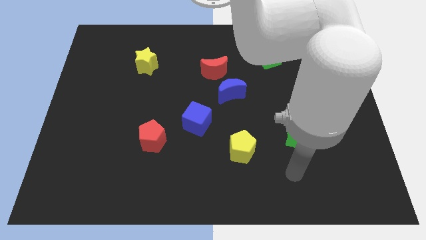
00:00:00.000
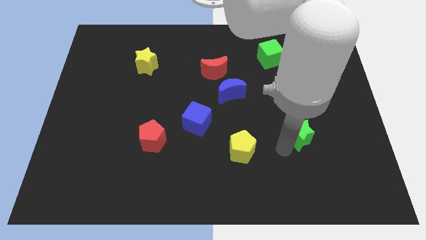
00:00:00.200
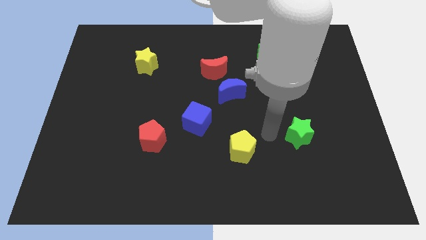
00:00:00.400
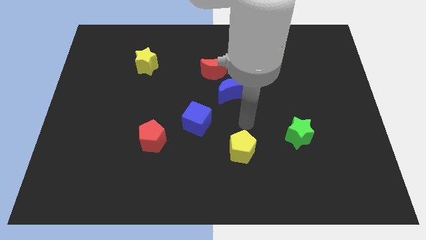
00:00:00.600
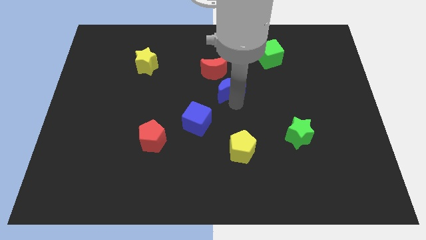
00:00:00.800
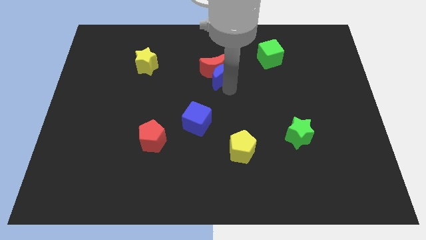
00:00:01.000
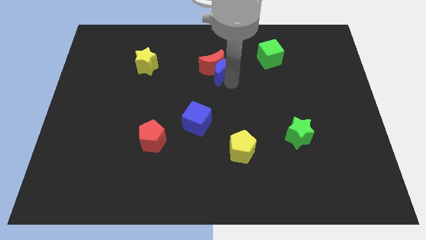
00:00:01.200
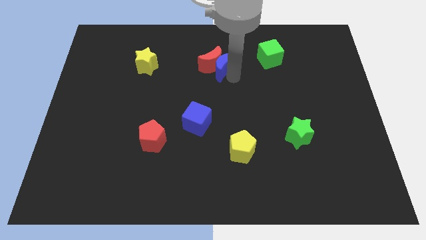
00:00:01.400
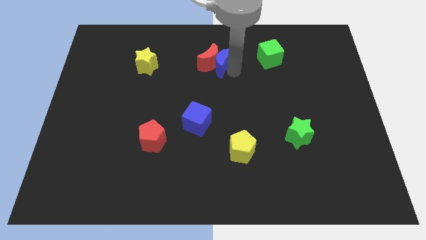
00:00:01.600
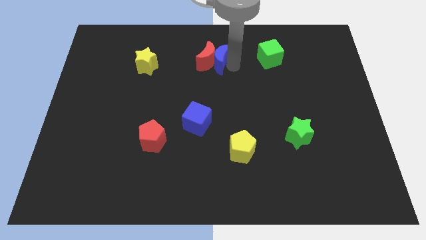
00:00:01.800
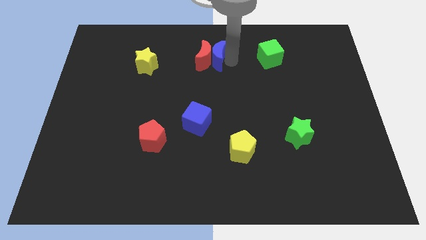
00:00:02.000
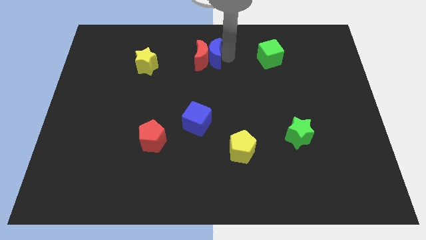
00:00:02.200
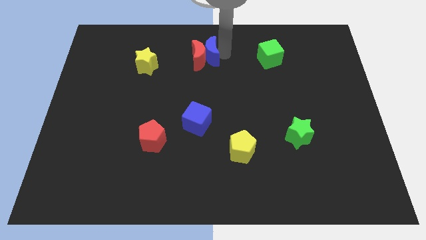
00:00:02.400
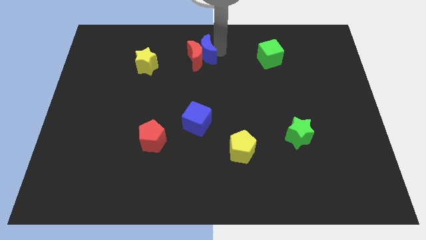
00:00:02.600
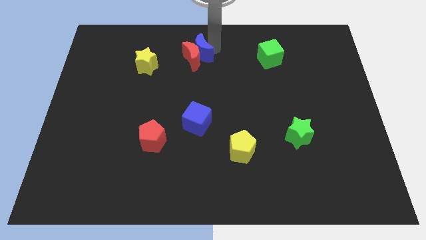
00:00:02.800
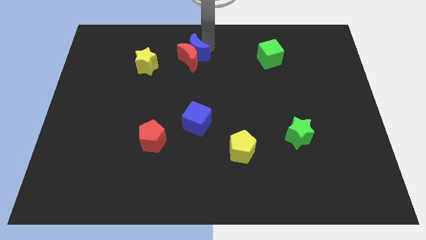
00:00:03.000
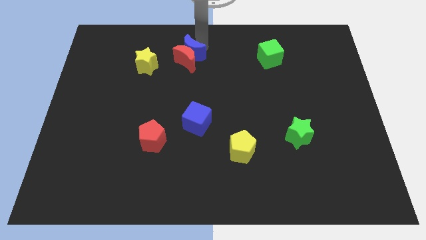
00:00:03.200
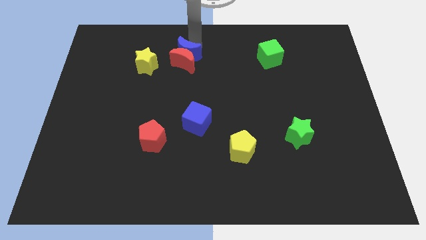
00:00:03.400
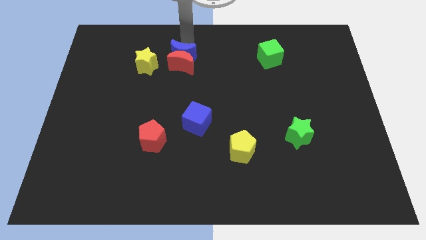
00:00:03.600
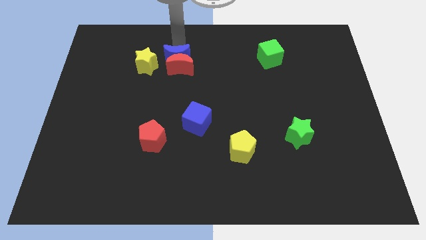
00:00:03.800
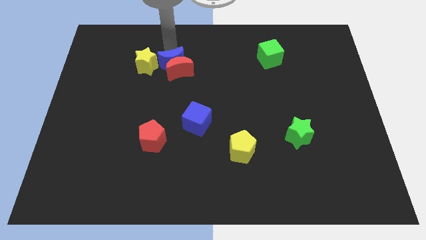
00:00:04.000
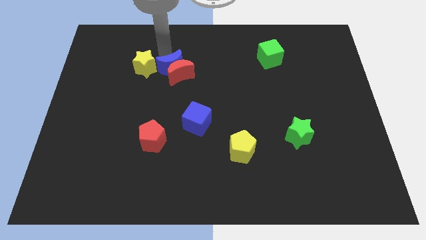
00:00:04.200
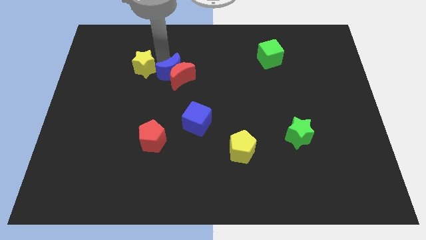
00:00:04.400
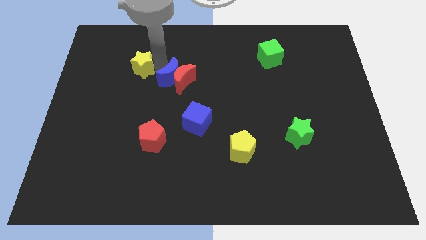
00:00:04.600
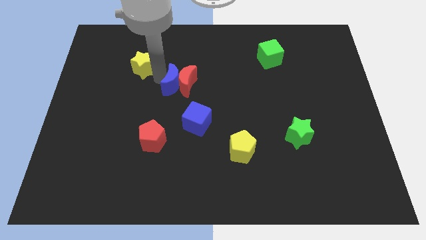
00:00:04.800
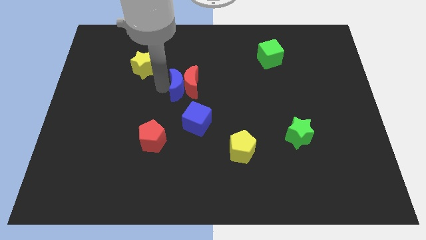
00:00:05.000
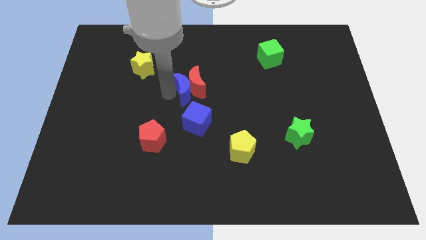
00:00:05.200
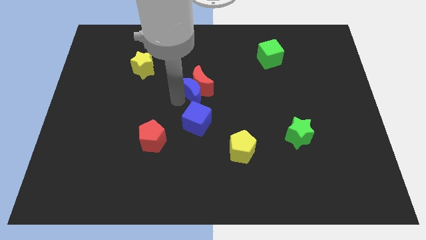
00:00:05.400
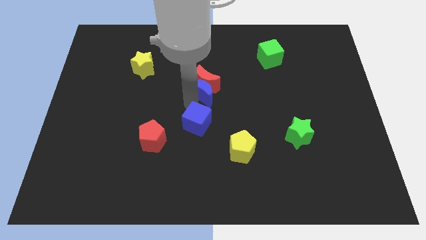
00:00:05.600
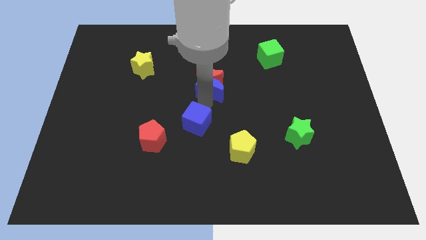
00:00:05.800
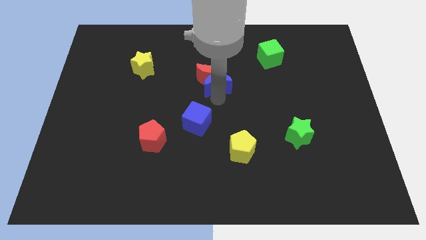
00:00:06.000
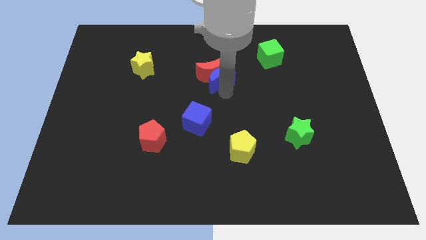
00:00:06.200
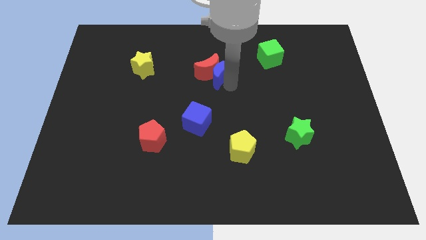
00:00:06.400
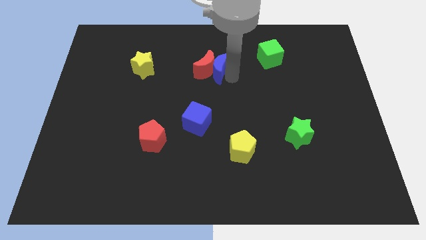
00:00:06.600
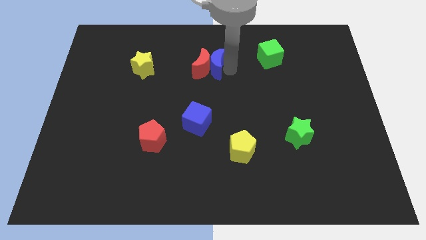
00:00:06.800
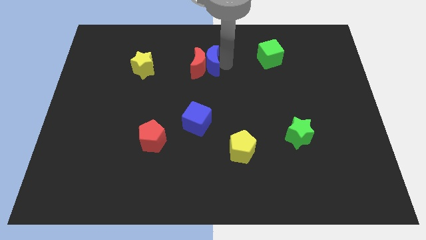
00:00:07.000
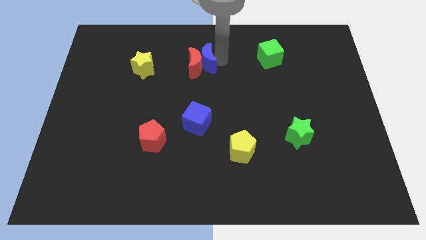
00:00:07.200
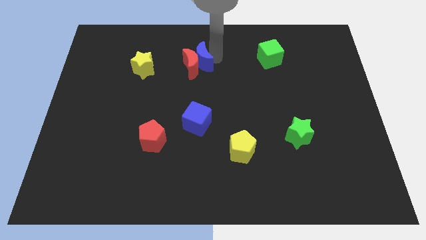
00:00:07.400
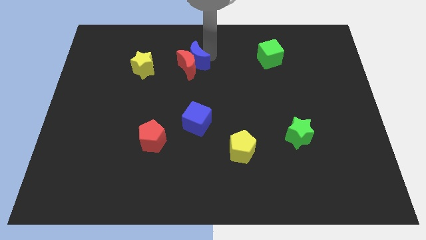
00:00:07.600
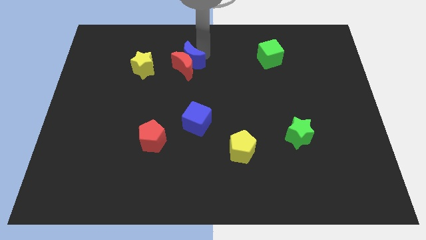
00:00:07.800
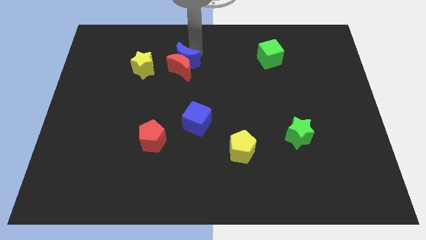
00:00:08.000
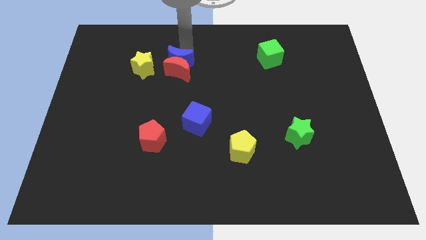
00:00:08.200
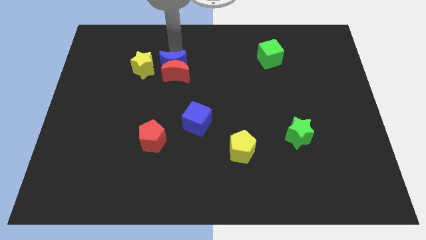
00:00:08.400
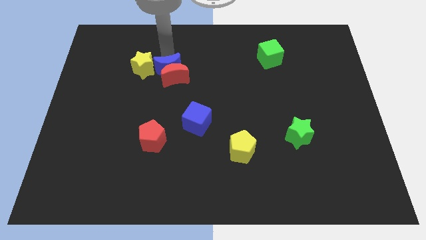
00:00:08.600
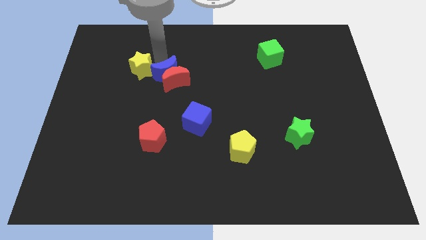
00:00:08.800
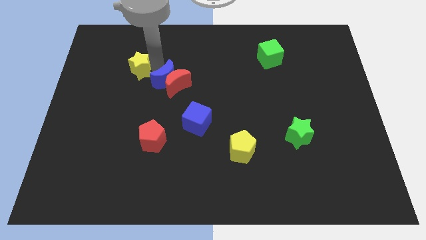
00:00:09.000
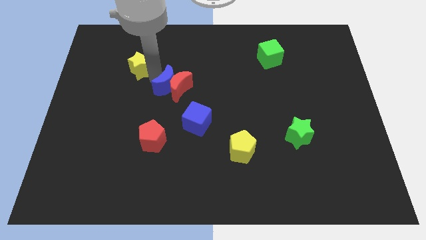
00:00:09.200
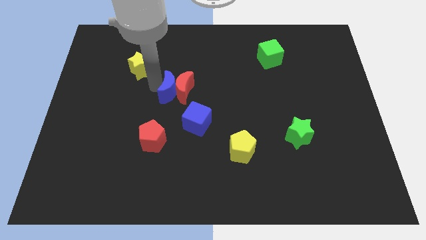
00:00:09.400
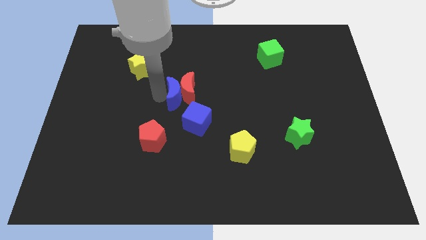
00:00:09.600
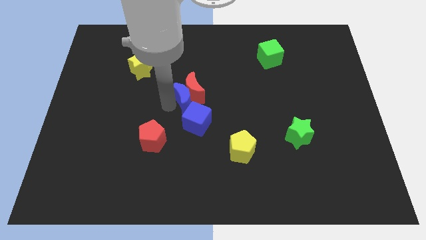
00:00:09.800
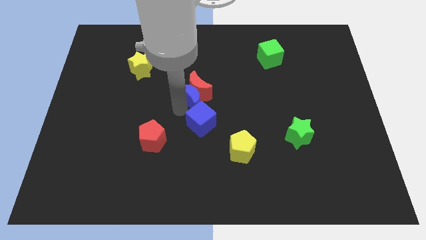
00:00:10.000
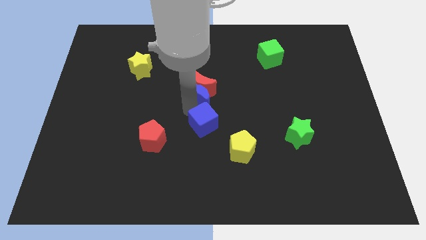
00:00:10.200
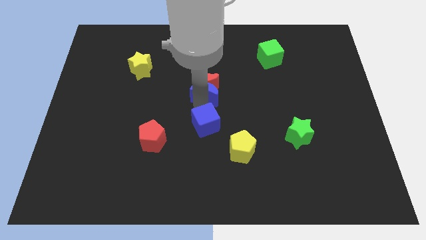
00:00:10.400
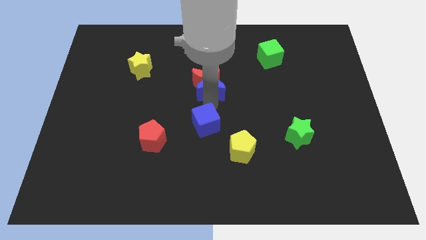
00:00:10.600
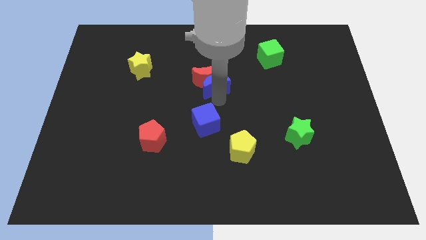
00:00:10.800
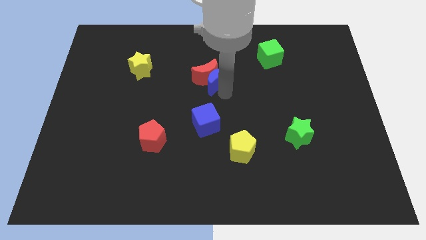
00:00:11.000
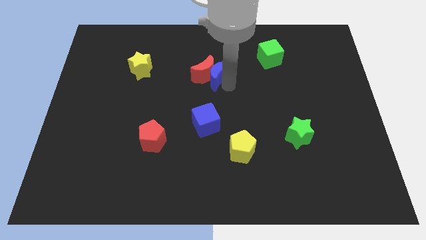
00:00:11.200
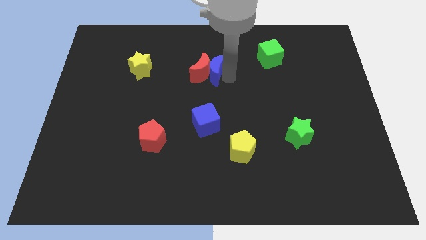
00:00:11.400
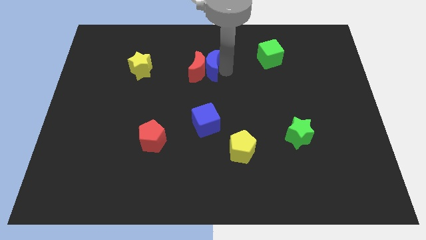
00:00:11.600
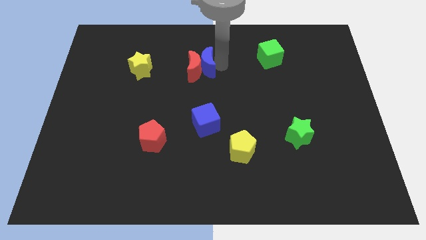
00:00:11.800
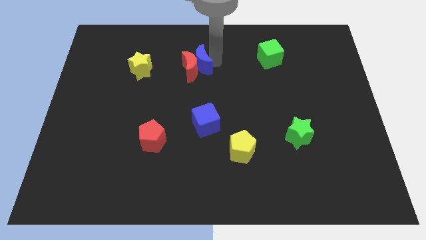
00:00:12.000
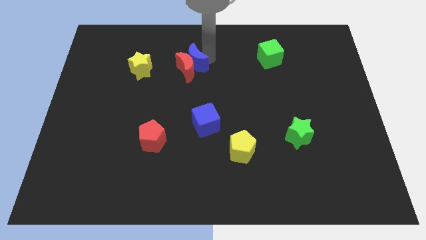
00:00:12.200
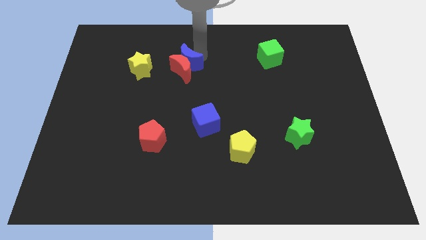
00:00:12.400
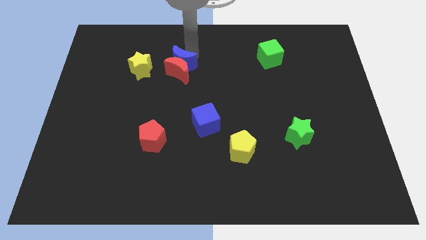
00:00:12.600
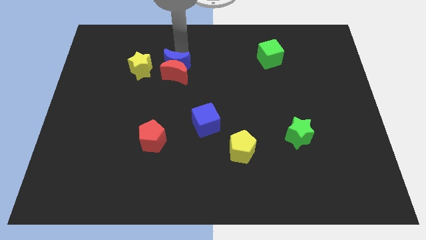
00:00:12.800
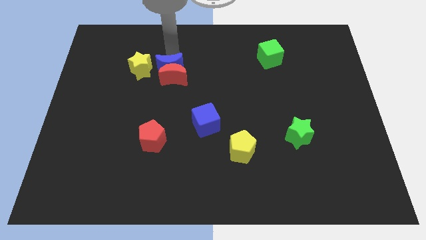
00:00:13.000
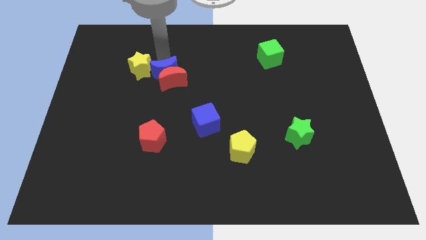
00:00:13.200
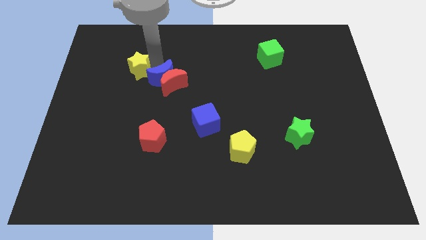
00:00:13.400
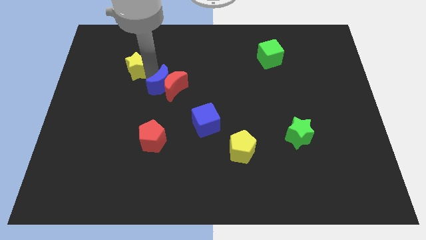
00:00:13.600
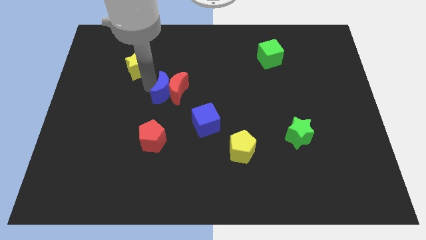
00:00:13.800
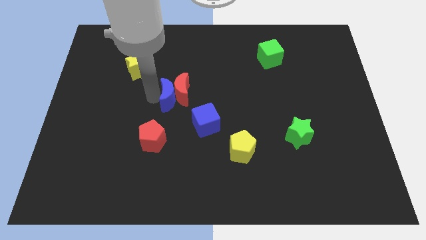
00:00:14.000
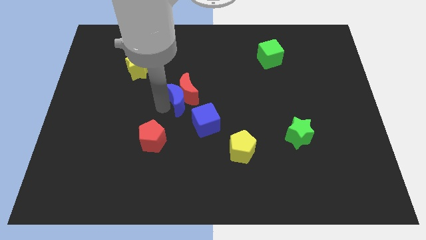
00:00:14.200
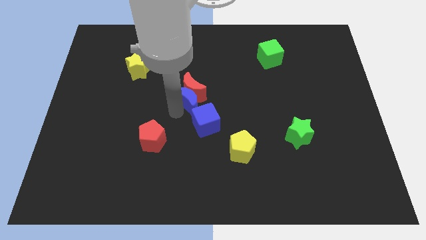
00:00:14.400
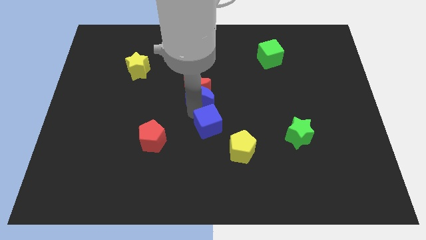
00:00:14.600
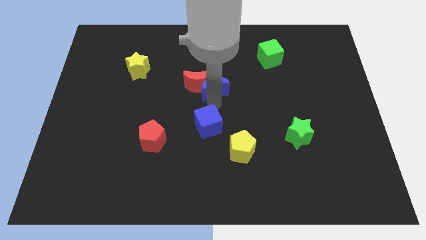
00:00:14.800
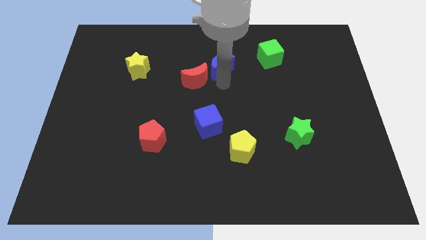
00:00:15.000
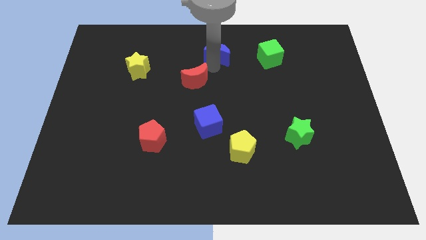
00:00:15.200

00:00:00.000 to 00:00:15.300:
pull the red moon apart from the blue moon

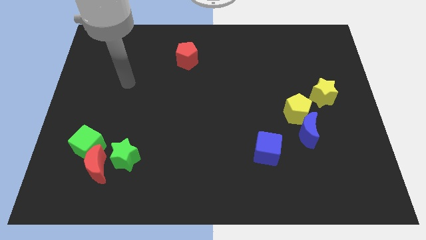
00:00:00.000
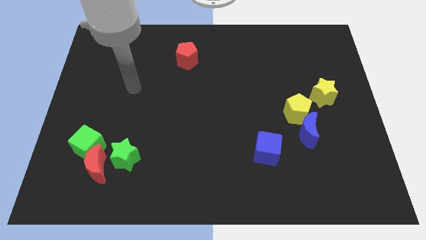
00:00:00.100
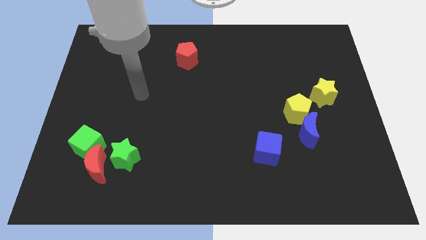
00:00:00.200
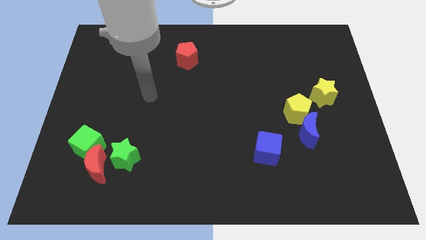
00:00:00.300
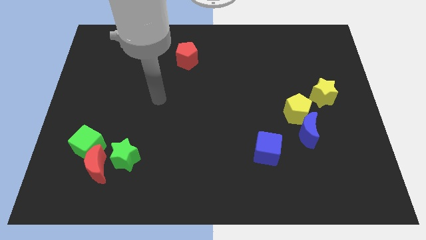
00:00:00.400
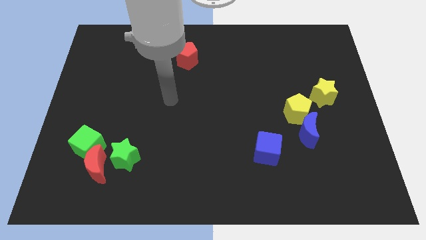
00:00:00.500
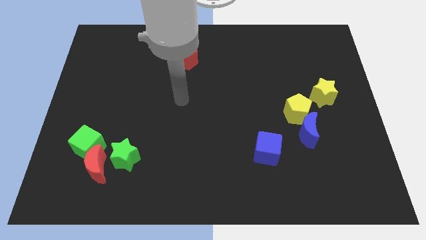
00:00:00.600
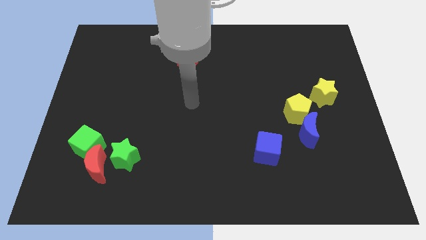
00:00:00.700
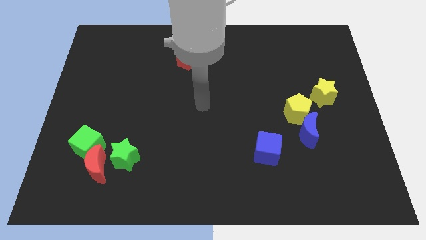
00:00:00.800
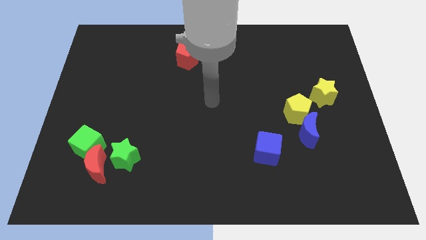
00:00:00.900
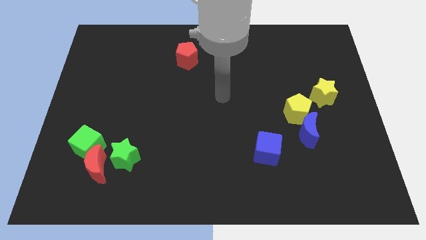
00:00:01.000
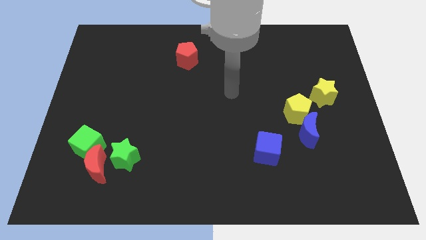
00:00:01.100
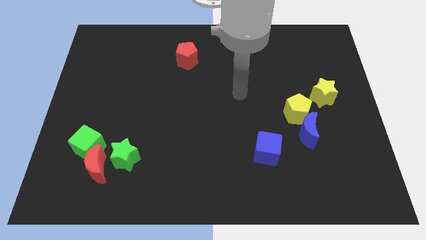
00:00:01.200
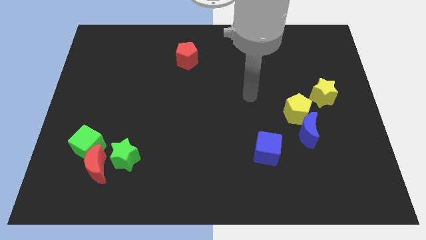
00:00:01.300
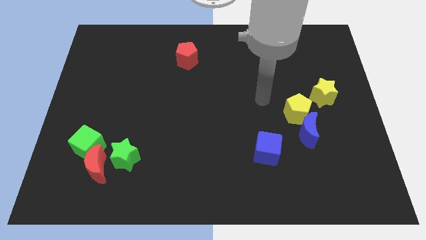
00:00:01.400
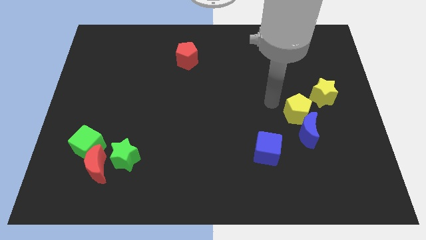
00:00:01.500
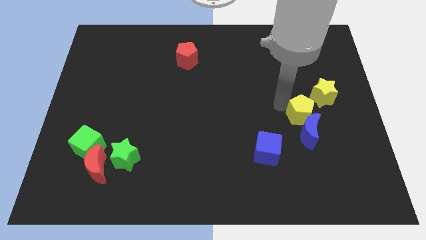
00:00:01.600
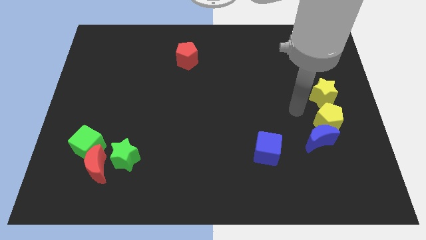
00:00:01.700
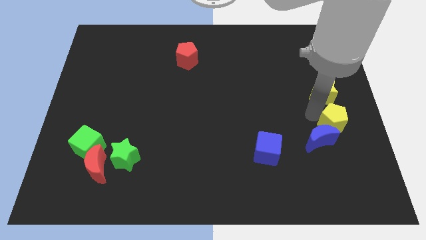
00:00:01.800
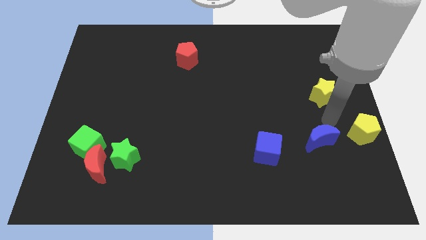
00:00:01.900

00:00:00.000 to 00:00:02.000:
move the blue moon away from the yellow pentagon
